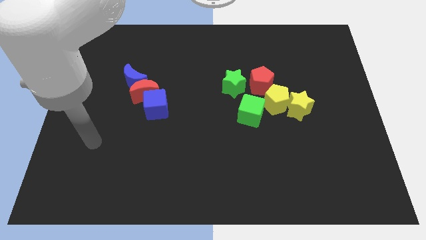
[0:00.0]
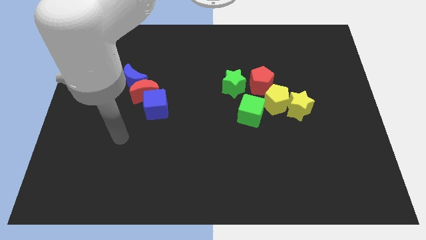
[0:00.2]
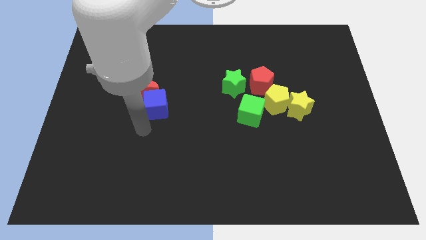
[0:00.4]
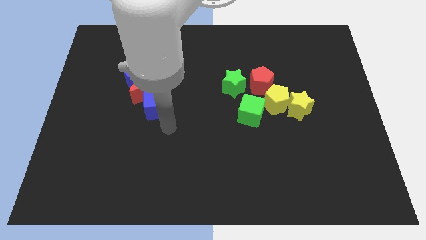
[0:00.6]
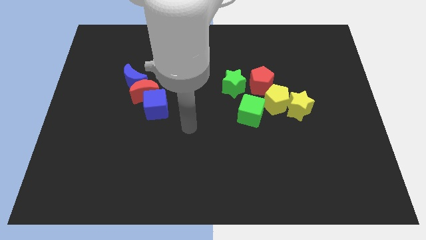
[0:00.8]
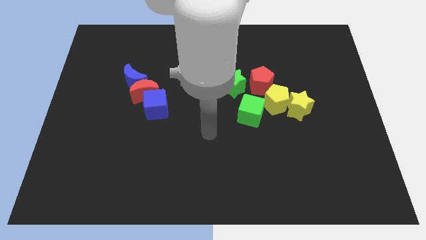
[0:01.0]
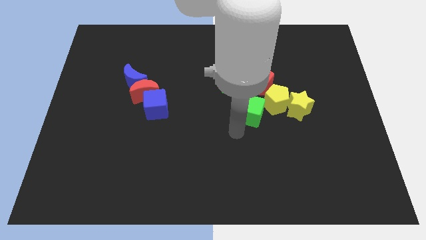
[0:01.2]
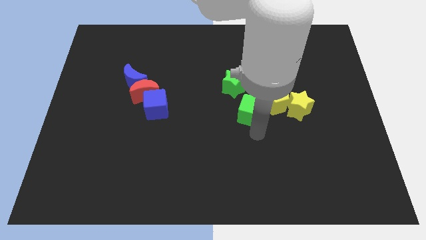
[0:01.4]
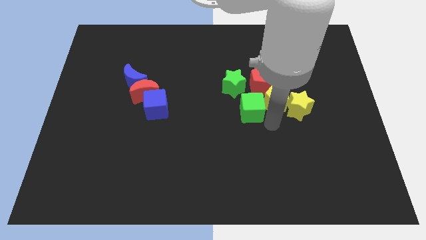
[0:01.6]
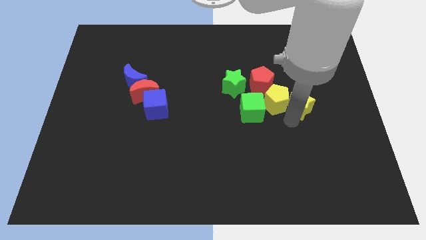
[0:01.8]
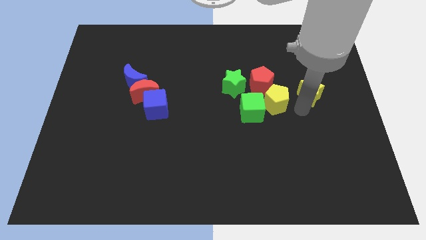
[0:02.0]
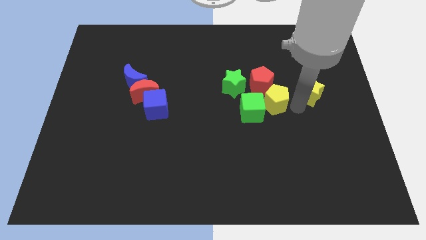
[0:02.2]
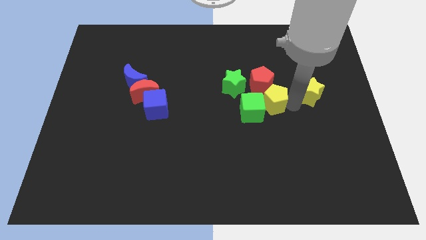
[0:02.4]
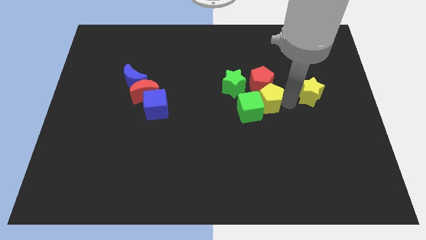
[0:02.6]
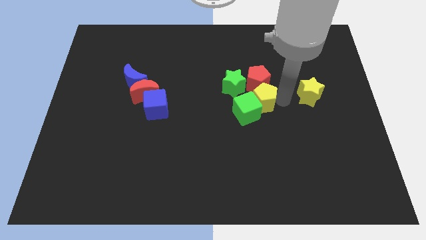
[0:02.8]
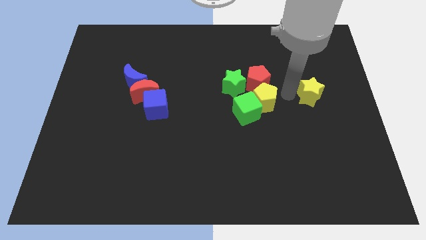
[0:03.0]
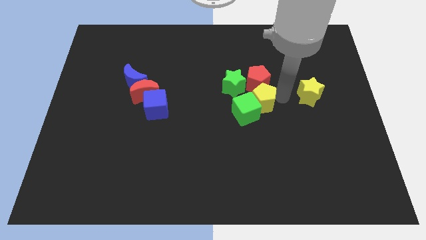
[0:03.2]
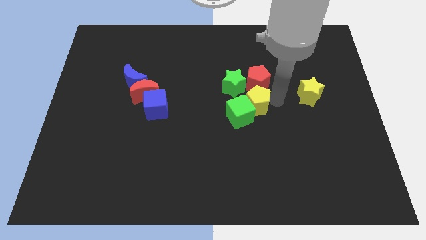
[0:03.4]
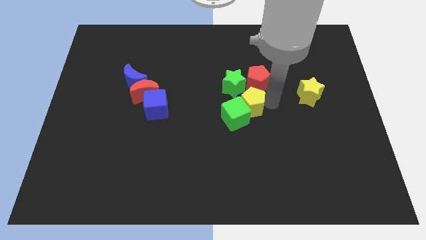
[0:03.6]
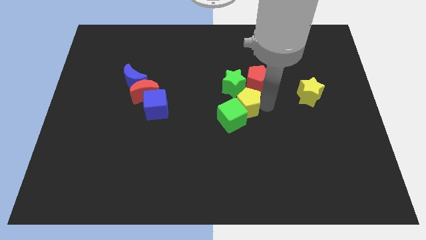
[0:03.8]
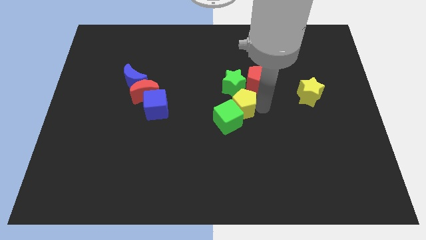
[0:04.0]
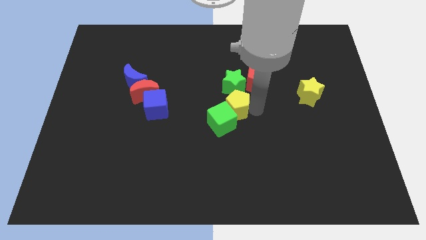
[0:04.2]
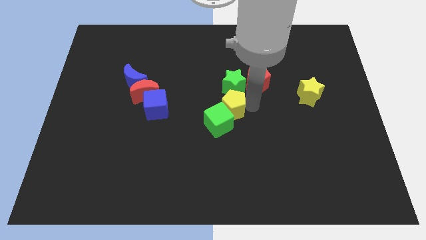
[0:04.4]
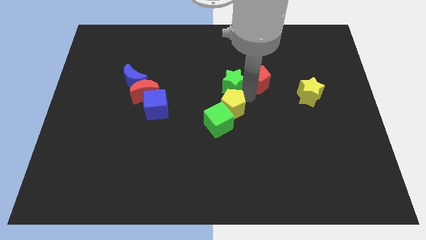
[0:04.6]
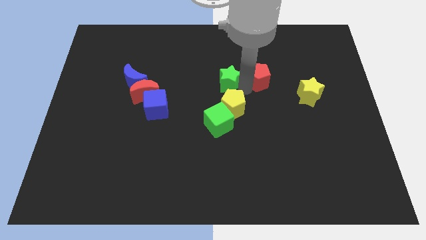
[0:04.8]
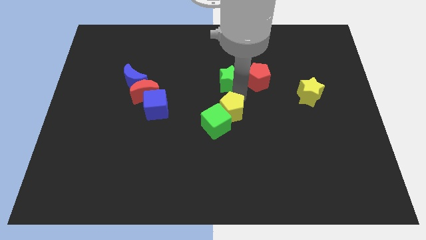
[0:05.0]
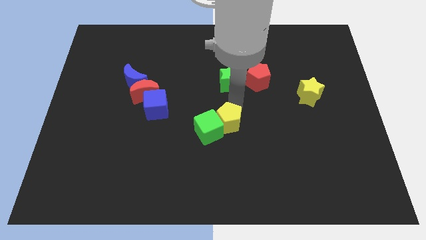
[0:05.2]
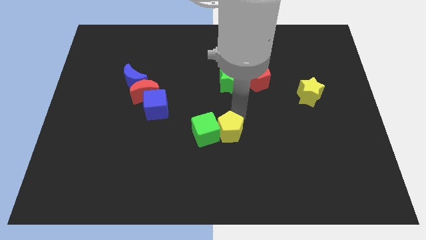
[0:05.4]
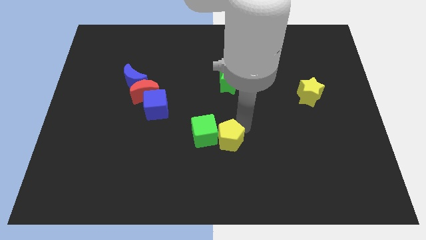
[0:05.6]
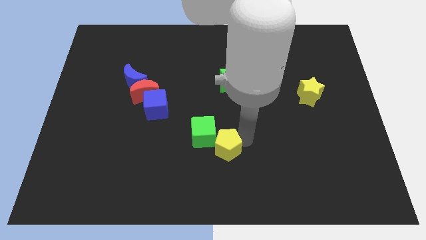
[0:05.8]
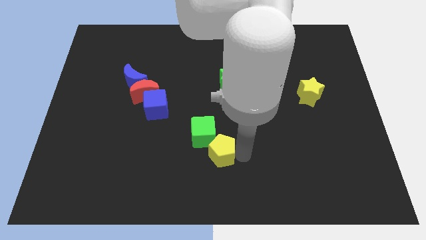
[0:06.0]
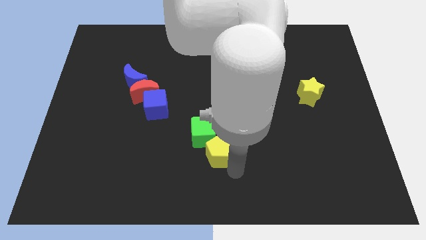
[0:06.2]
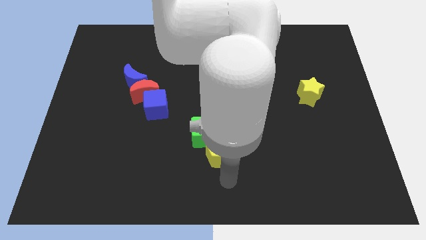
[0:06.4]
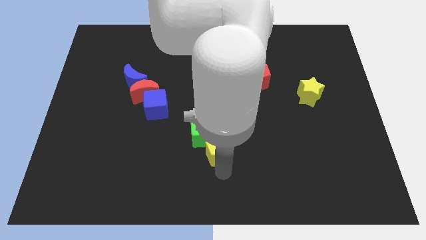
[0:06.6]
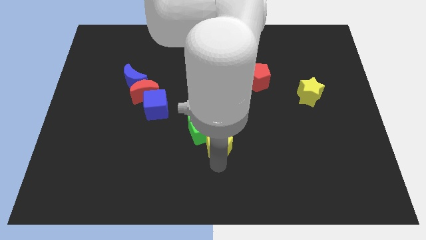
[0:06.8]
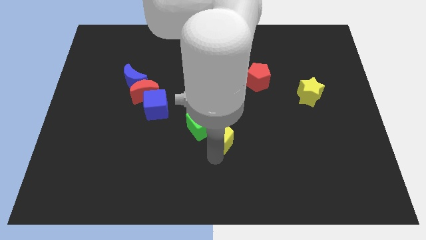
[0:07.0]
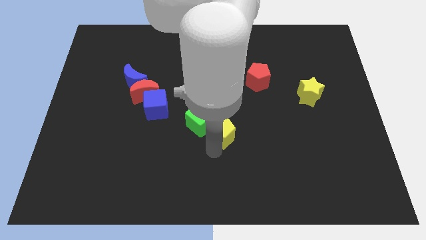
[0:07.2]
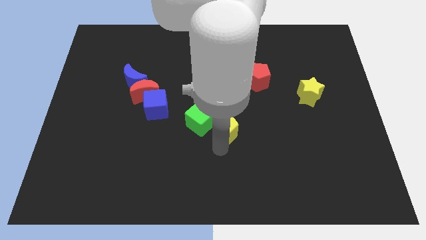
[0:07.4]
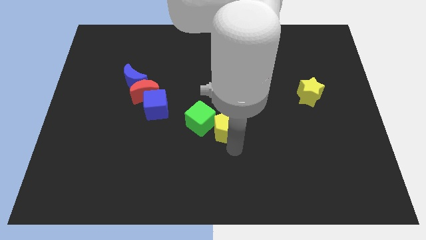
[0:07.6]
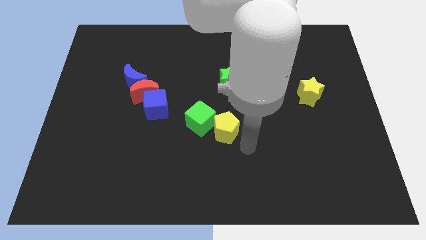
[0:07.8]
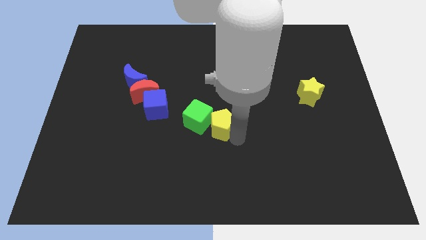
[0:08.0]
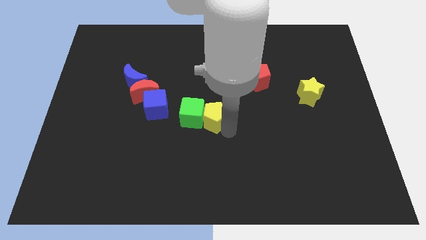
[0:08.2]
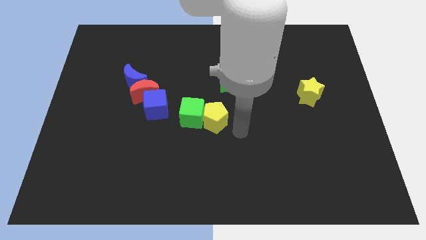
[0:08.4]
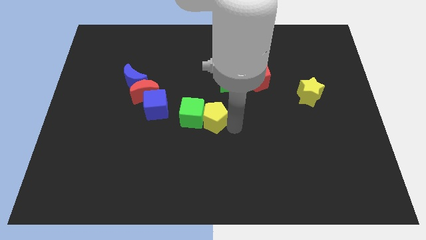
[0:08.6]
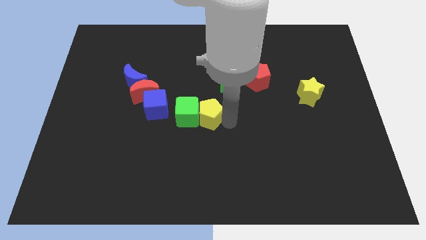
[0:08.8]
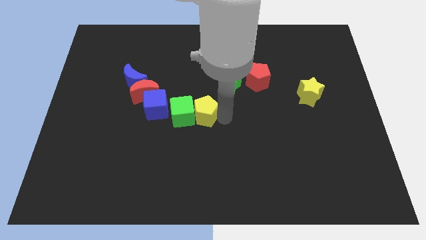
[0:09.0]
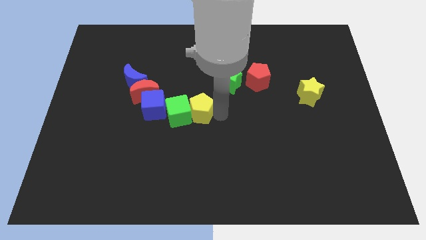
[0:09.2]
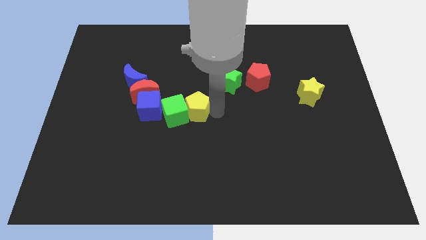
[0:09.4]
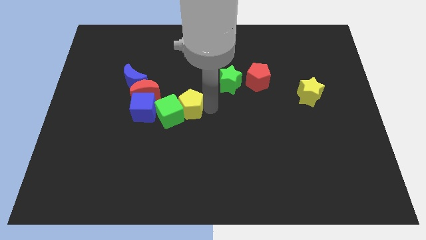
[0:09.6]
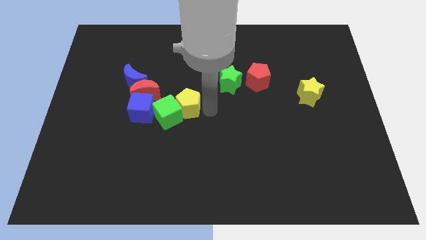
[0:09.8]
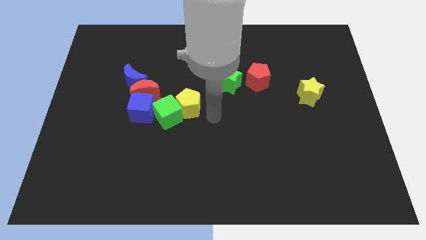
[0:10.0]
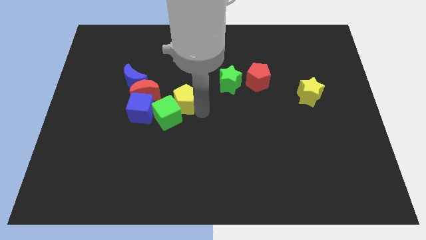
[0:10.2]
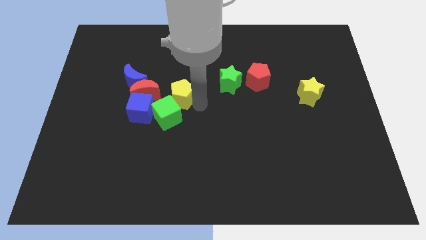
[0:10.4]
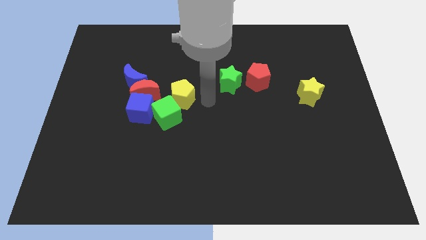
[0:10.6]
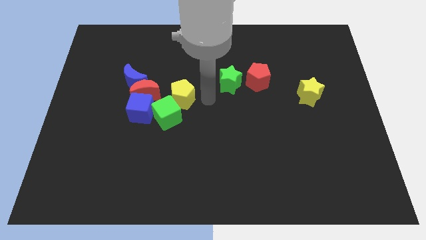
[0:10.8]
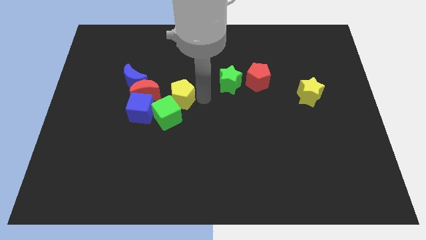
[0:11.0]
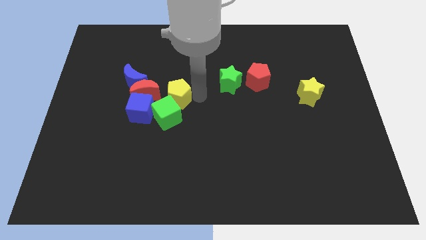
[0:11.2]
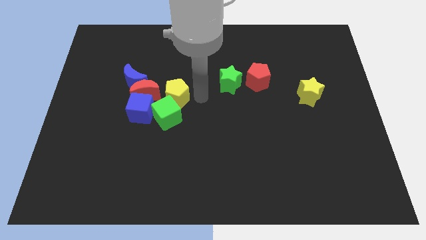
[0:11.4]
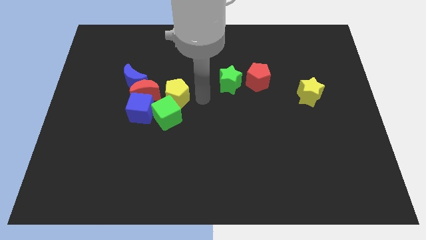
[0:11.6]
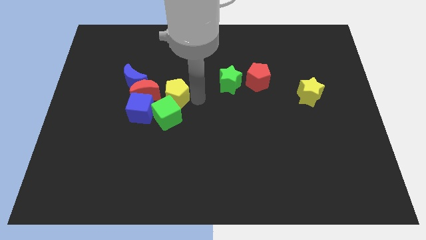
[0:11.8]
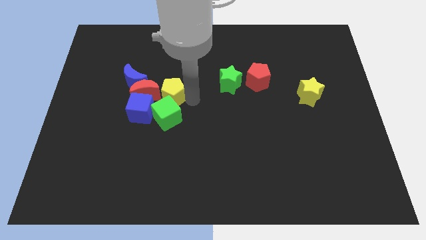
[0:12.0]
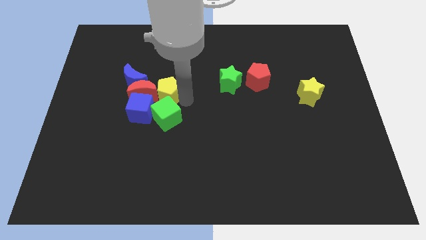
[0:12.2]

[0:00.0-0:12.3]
push the yellow pentagon next to the red moon
